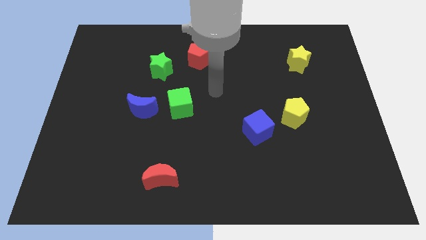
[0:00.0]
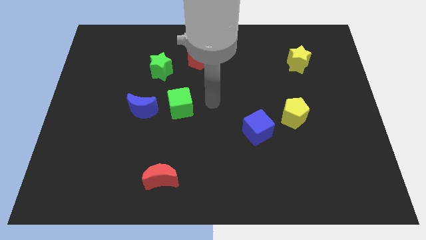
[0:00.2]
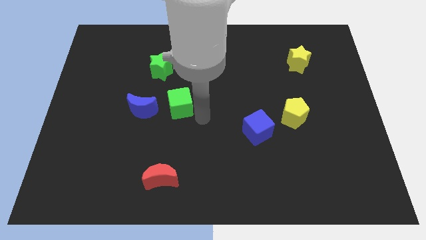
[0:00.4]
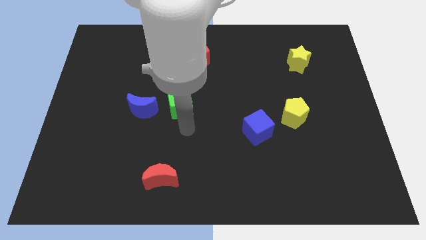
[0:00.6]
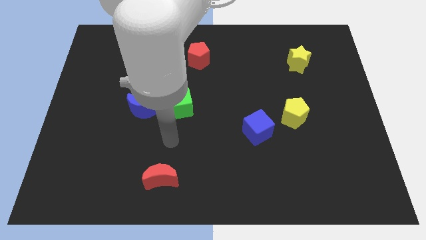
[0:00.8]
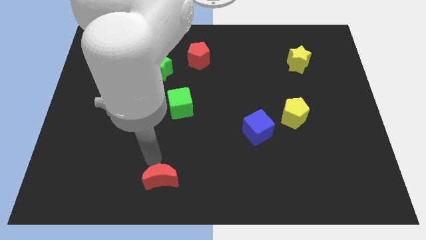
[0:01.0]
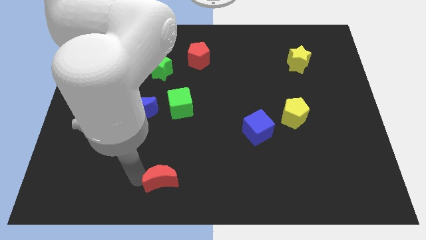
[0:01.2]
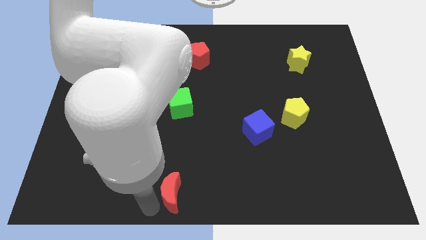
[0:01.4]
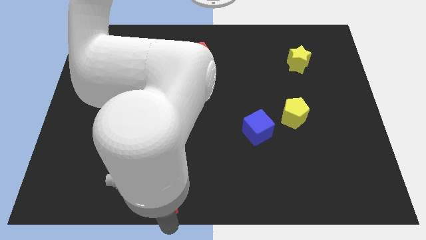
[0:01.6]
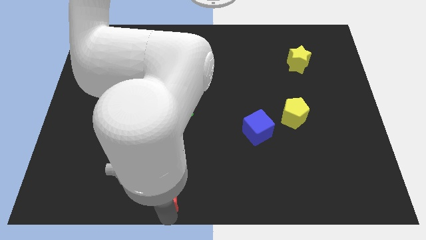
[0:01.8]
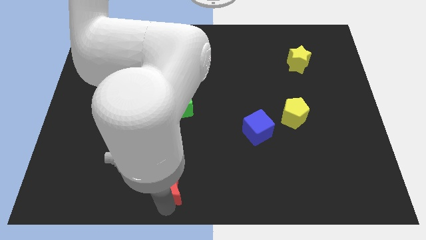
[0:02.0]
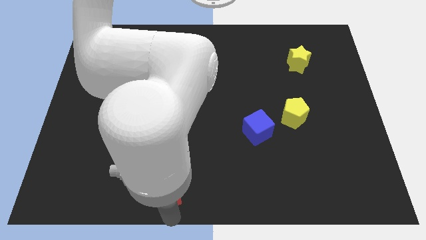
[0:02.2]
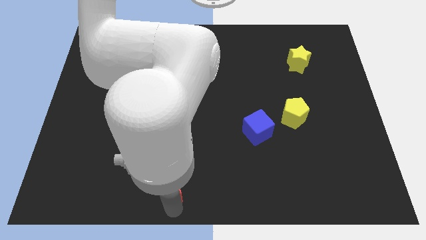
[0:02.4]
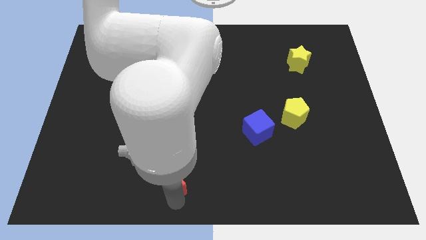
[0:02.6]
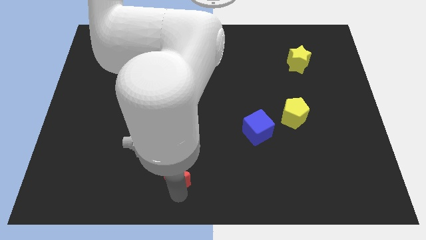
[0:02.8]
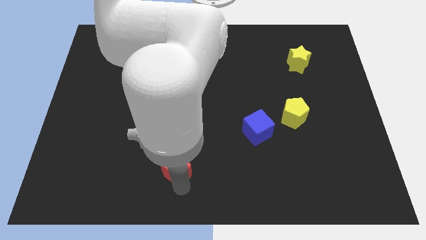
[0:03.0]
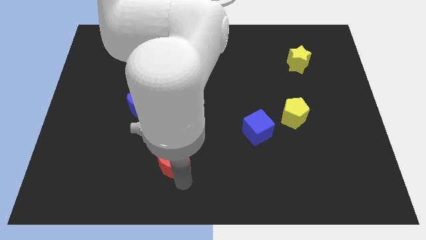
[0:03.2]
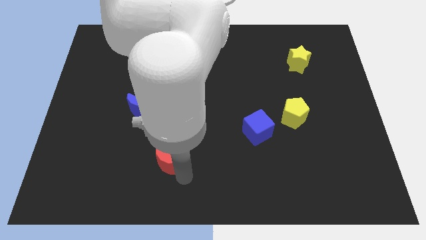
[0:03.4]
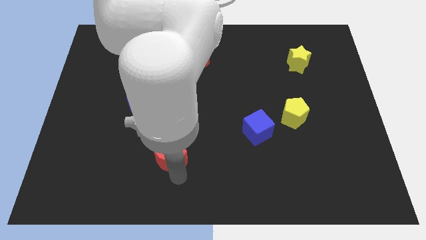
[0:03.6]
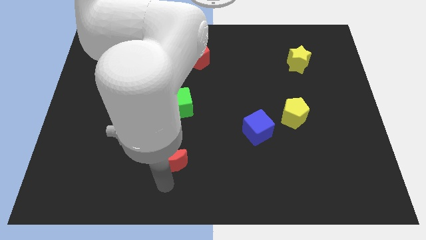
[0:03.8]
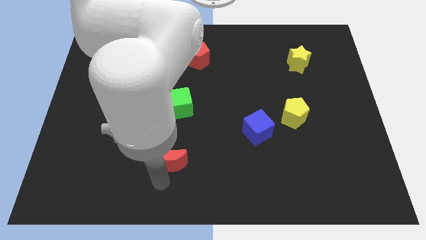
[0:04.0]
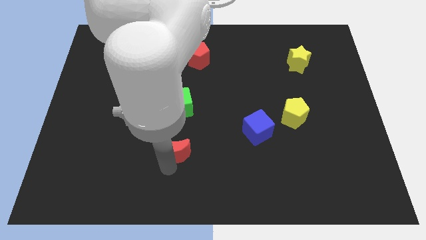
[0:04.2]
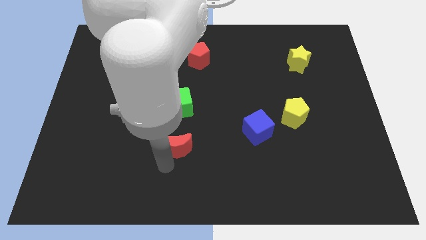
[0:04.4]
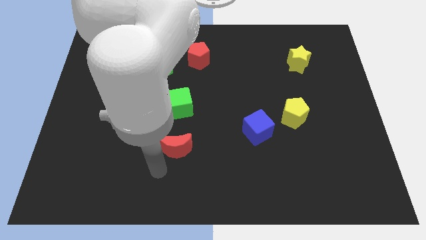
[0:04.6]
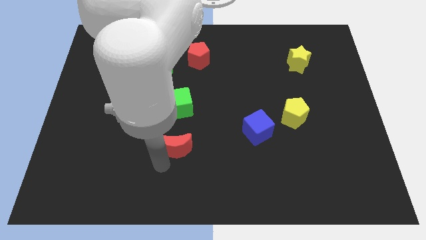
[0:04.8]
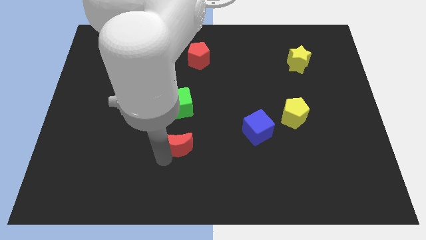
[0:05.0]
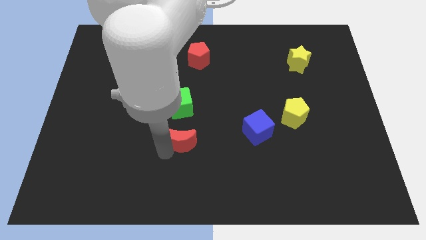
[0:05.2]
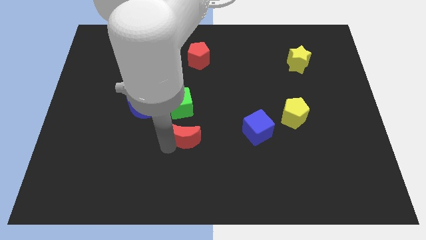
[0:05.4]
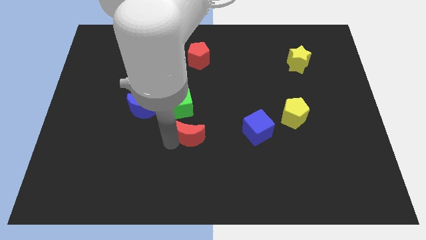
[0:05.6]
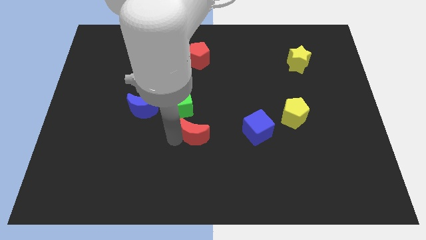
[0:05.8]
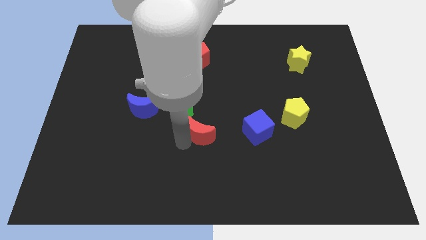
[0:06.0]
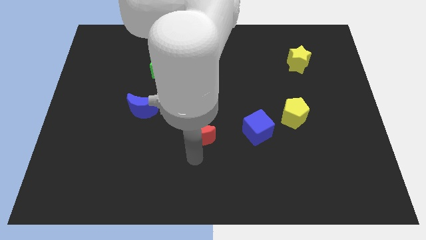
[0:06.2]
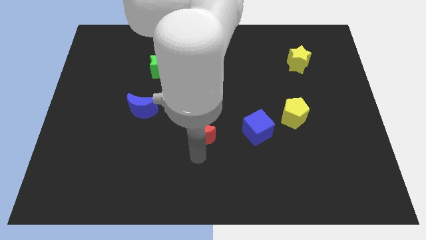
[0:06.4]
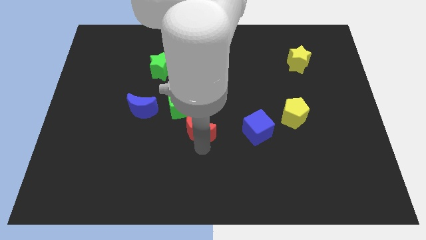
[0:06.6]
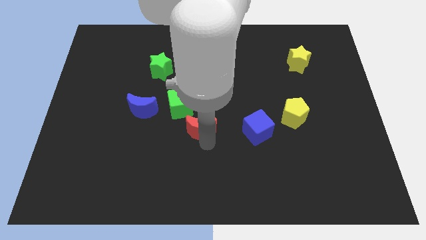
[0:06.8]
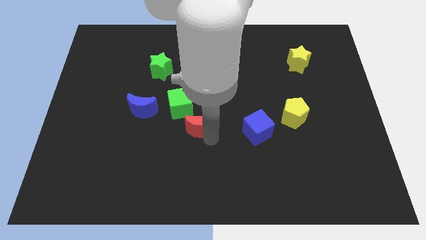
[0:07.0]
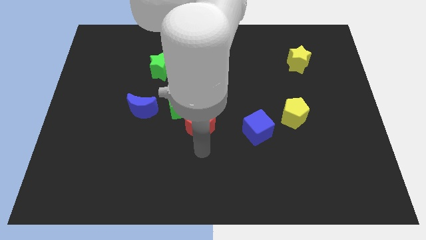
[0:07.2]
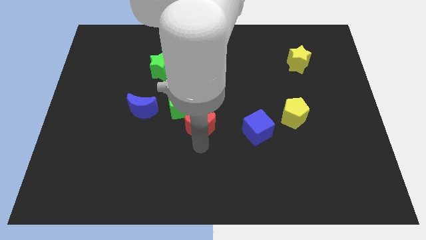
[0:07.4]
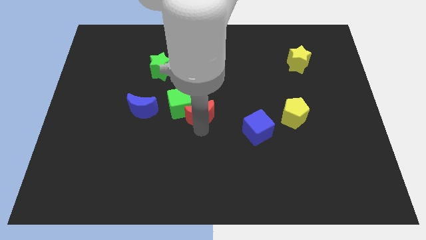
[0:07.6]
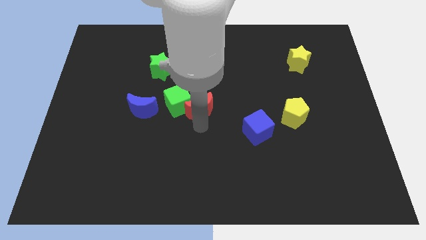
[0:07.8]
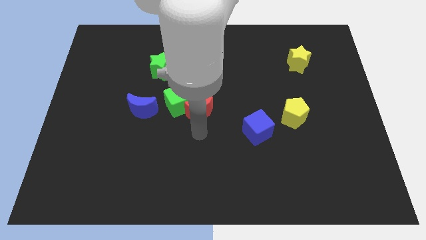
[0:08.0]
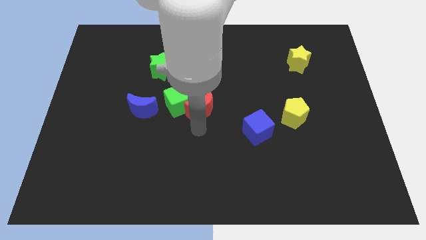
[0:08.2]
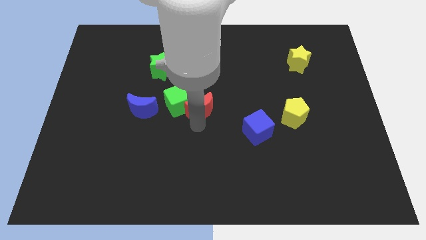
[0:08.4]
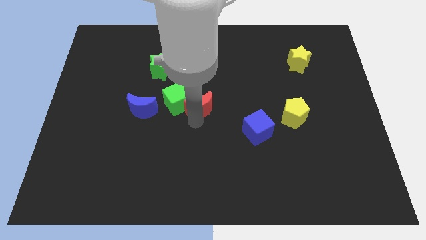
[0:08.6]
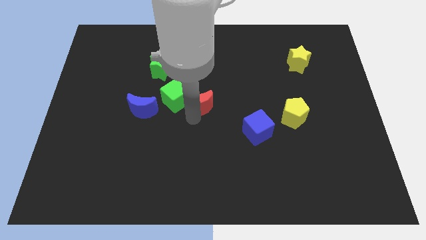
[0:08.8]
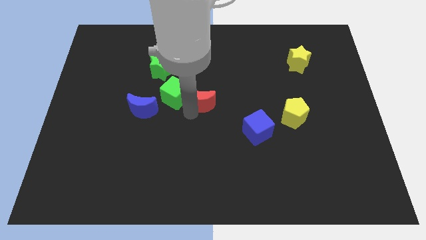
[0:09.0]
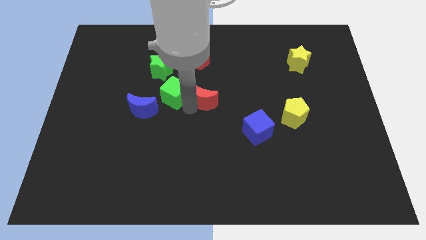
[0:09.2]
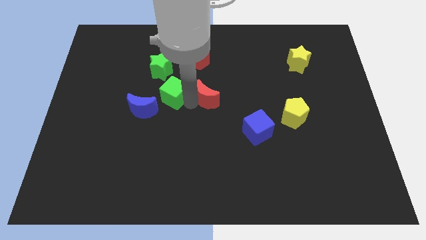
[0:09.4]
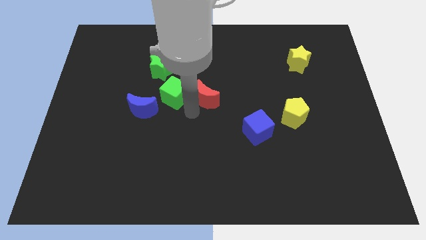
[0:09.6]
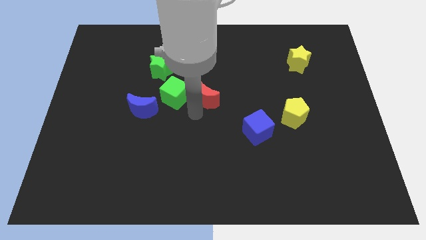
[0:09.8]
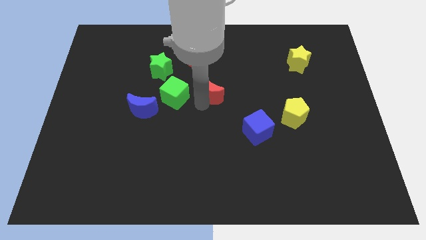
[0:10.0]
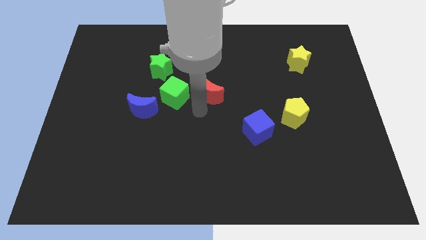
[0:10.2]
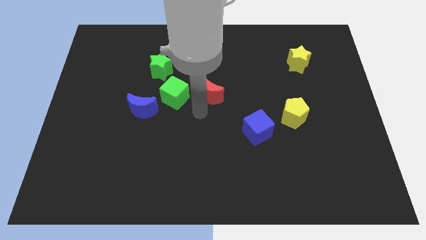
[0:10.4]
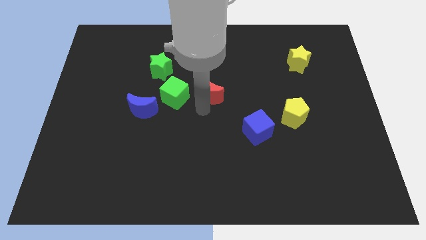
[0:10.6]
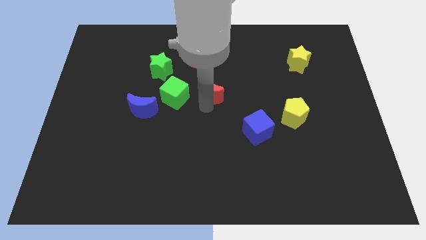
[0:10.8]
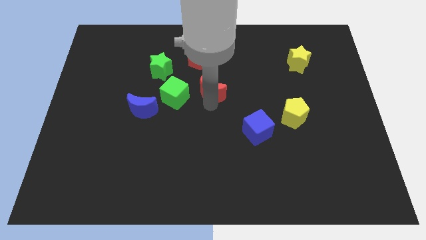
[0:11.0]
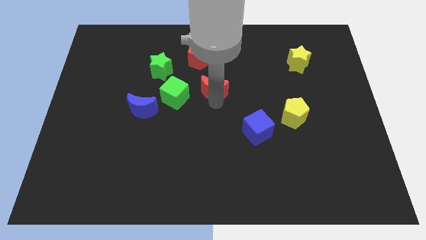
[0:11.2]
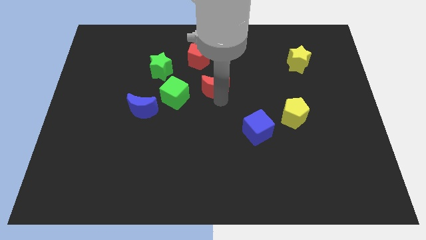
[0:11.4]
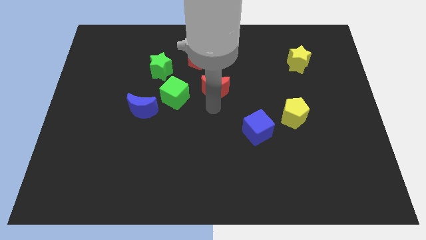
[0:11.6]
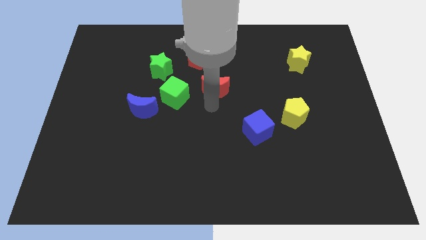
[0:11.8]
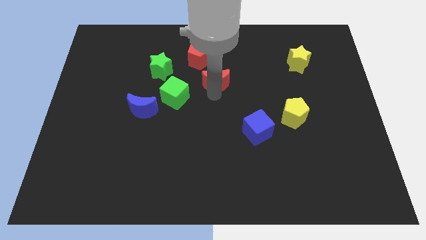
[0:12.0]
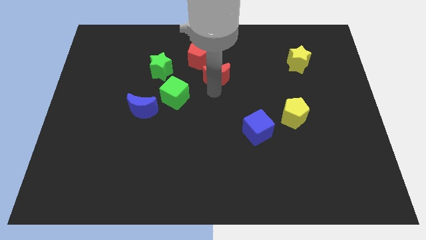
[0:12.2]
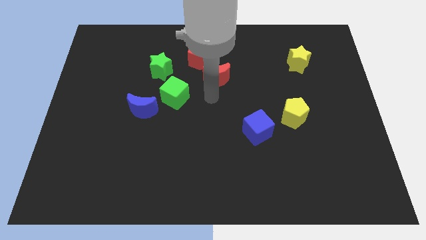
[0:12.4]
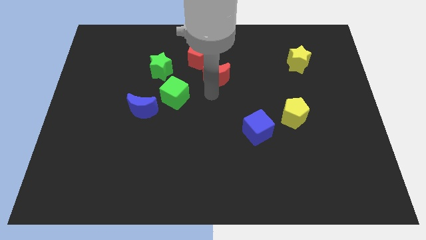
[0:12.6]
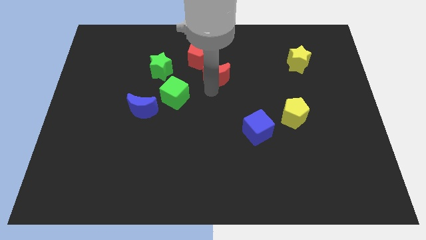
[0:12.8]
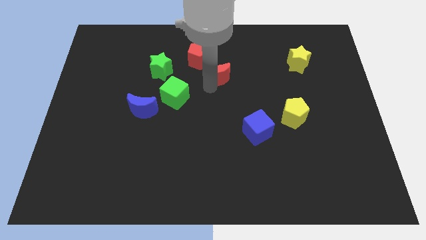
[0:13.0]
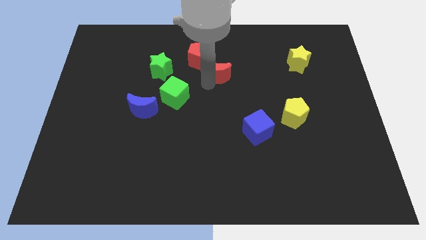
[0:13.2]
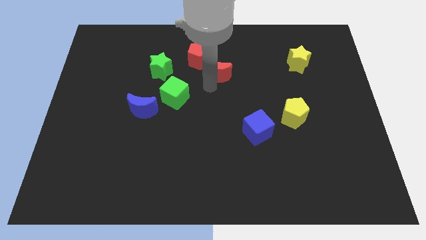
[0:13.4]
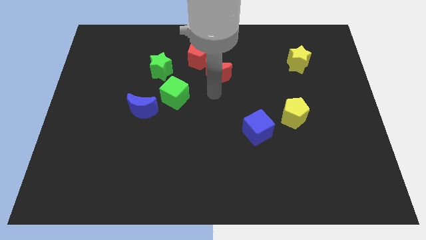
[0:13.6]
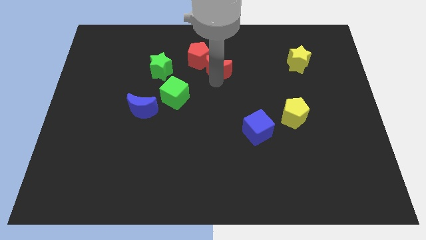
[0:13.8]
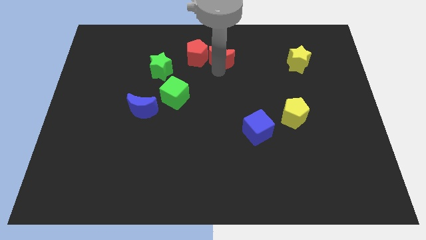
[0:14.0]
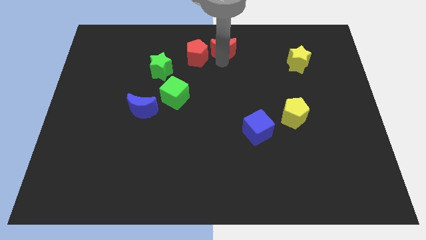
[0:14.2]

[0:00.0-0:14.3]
put the red moon to the top
